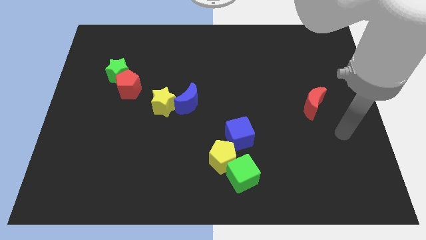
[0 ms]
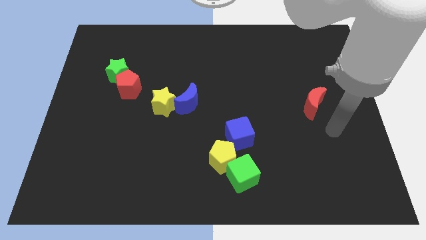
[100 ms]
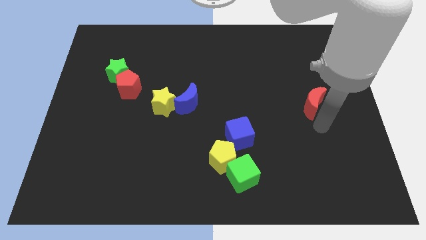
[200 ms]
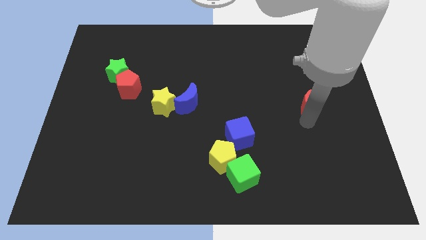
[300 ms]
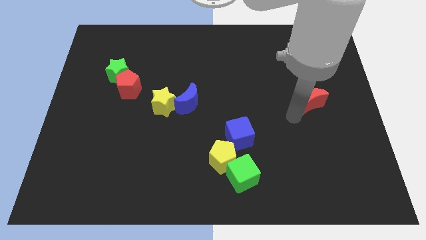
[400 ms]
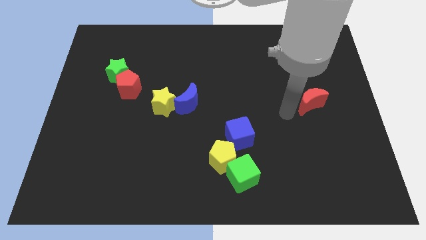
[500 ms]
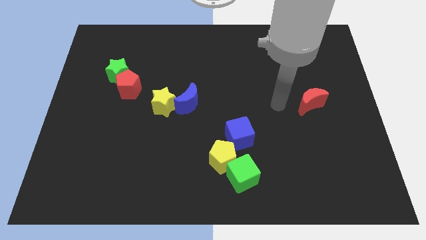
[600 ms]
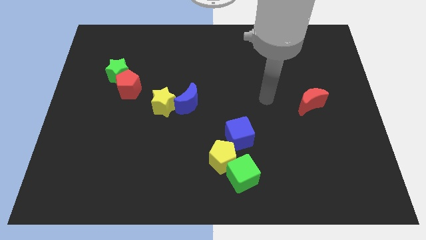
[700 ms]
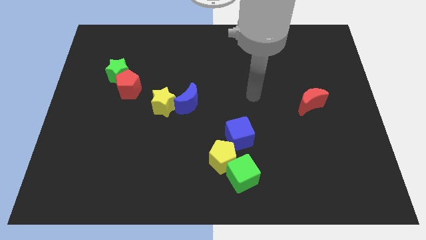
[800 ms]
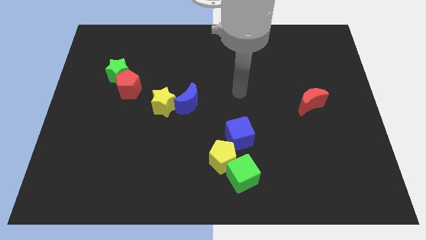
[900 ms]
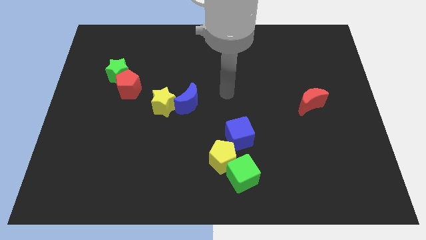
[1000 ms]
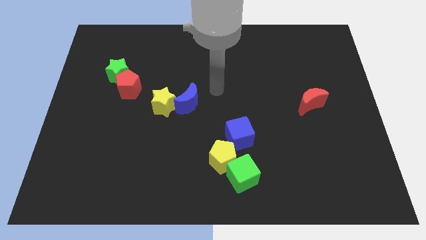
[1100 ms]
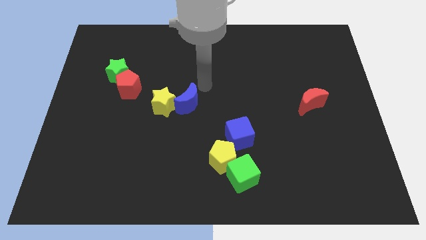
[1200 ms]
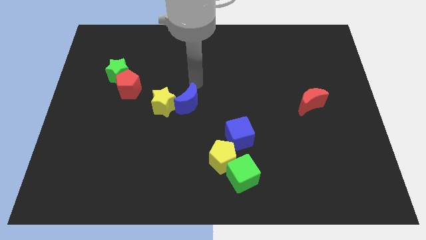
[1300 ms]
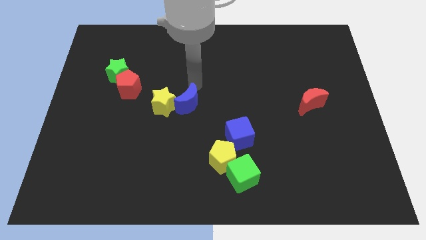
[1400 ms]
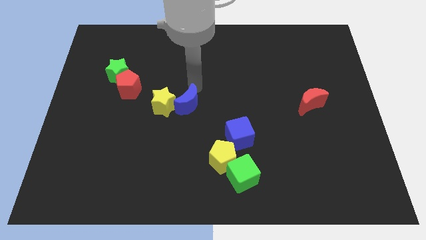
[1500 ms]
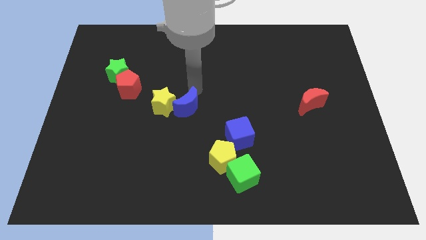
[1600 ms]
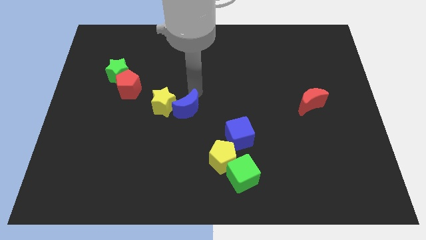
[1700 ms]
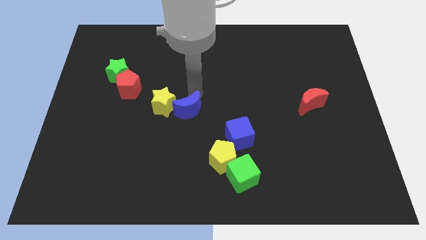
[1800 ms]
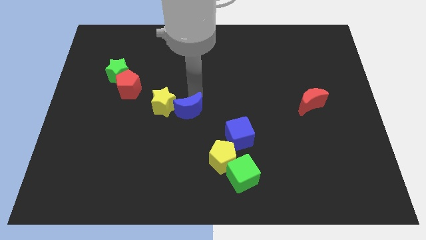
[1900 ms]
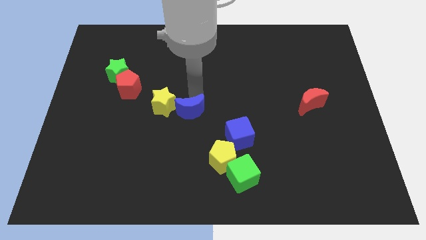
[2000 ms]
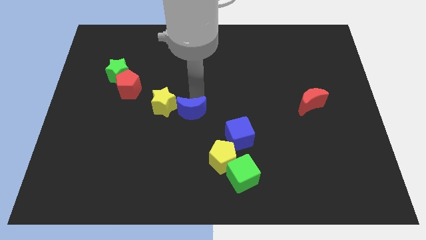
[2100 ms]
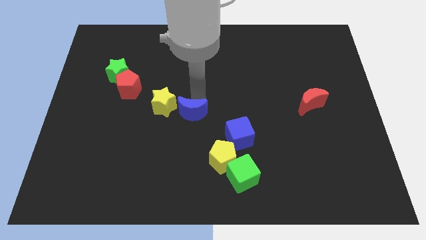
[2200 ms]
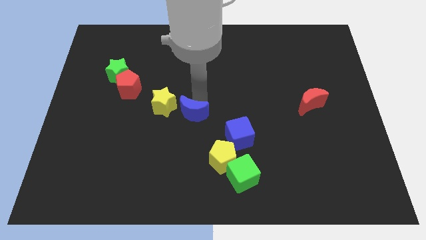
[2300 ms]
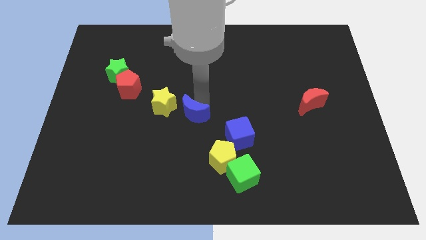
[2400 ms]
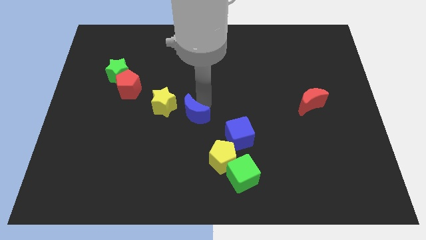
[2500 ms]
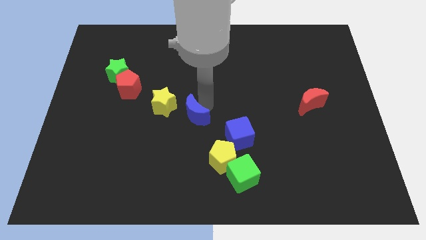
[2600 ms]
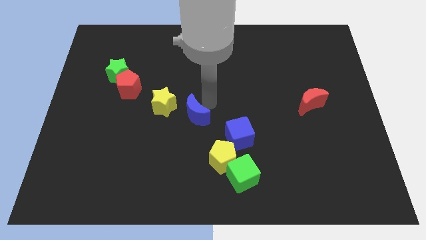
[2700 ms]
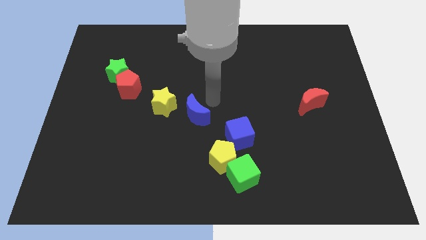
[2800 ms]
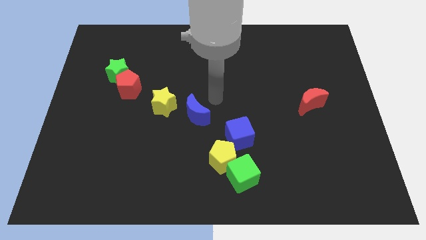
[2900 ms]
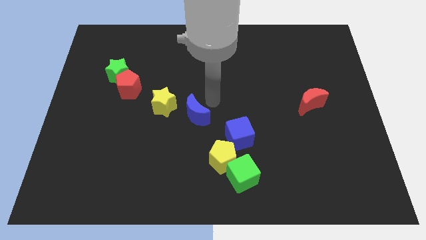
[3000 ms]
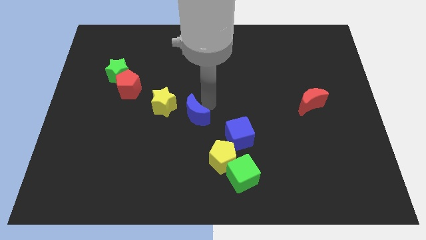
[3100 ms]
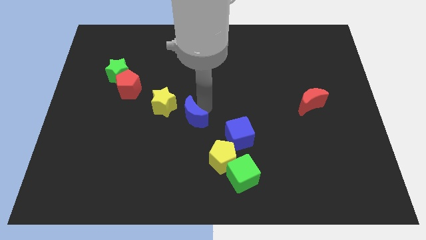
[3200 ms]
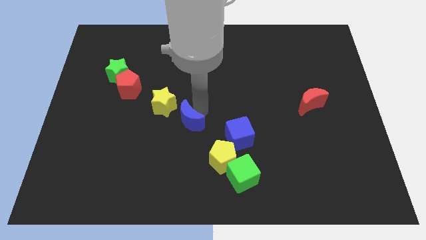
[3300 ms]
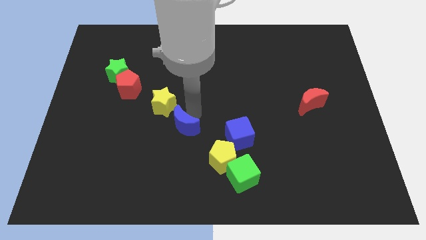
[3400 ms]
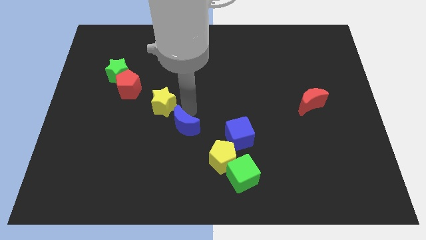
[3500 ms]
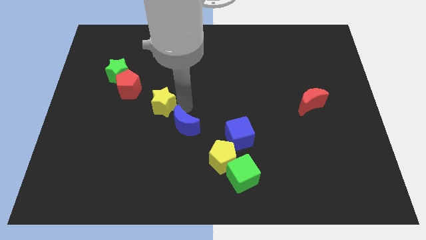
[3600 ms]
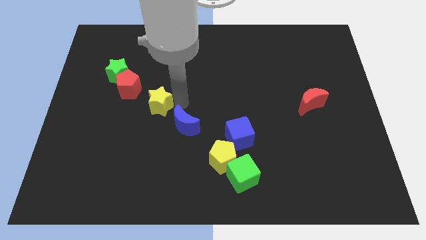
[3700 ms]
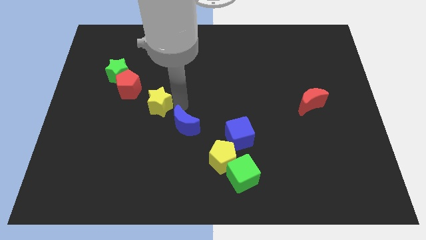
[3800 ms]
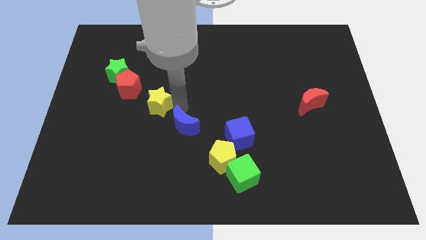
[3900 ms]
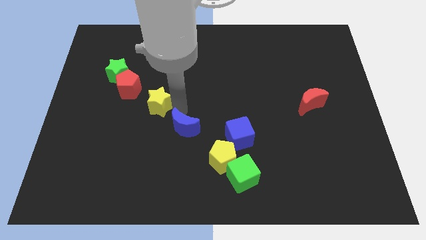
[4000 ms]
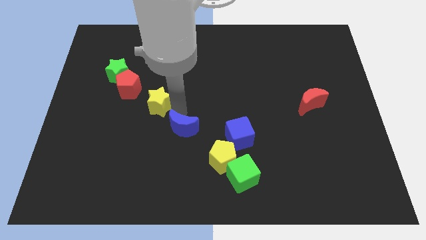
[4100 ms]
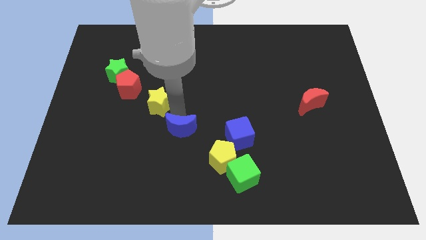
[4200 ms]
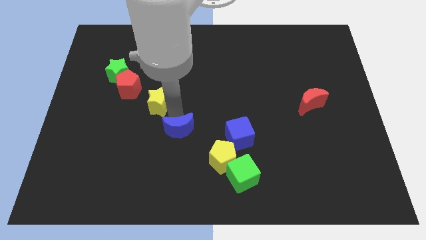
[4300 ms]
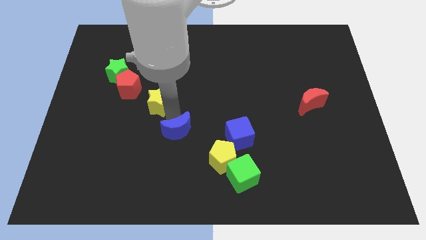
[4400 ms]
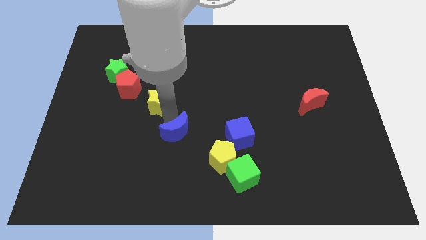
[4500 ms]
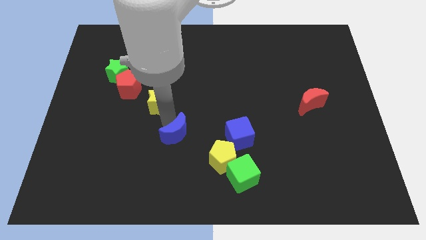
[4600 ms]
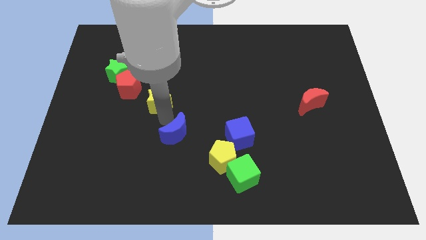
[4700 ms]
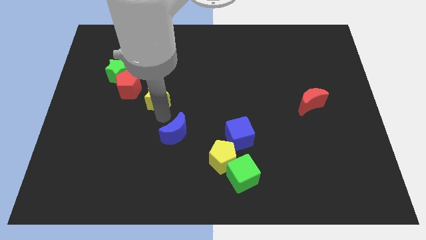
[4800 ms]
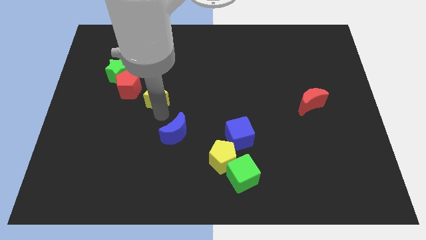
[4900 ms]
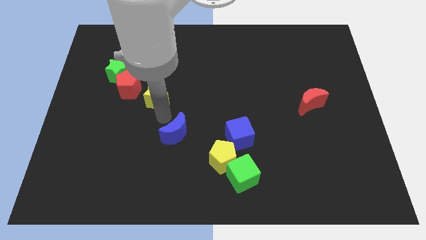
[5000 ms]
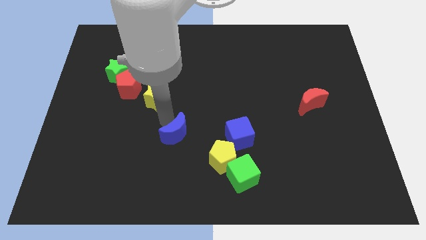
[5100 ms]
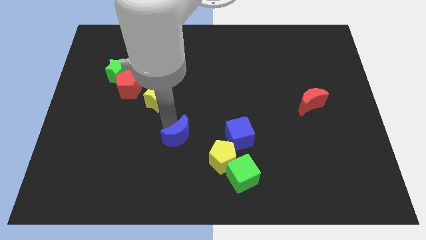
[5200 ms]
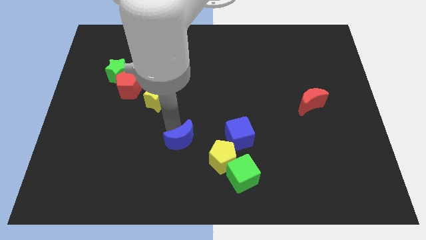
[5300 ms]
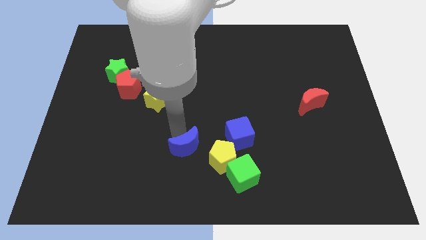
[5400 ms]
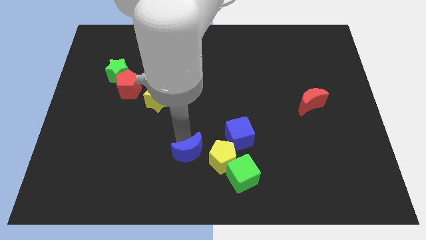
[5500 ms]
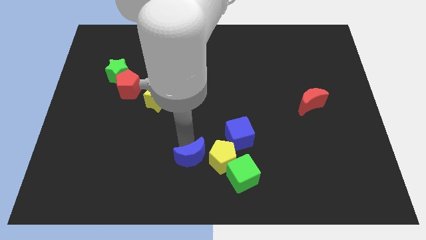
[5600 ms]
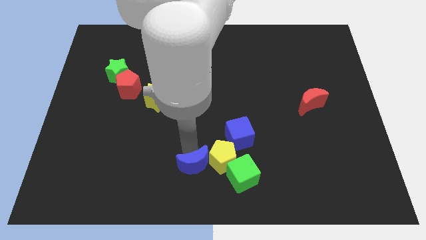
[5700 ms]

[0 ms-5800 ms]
move the blue moon diagonally down and to the left of the yellow pentagon

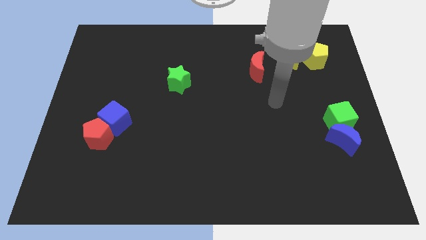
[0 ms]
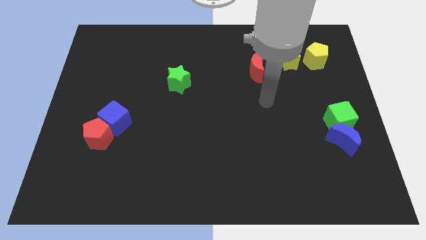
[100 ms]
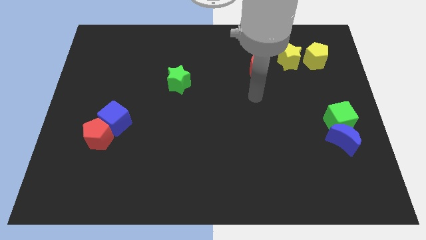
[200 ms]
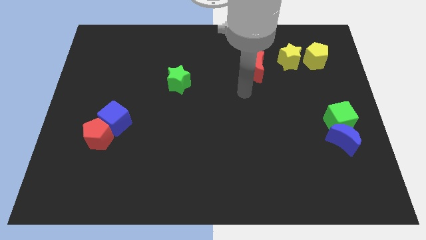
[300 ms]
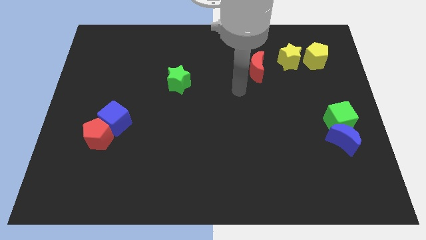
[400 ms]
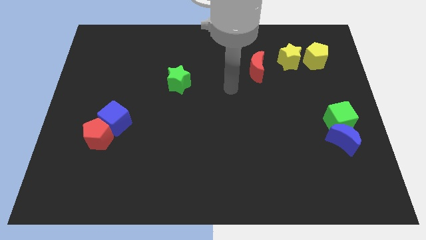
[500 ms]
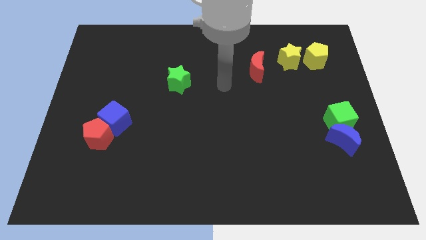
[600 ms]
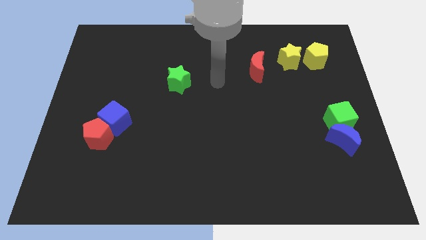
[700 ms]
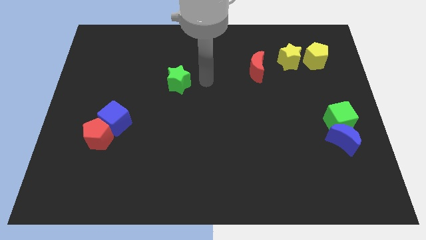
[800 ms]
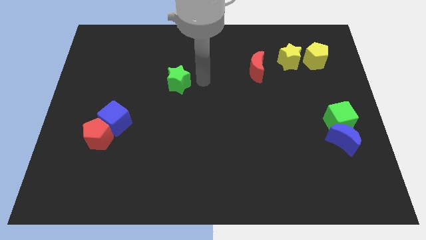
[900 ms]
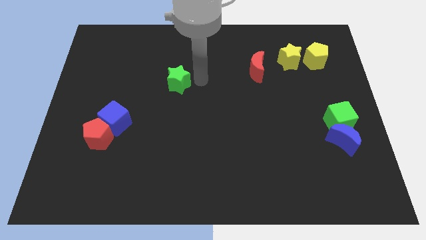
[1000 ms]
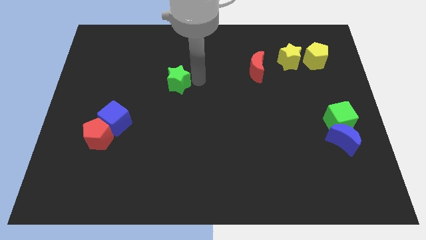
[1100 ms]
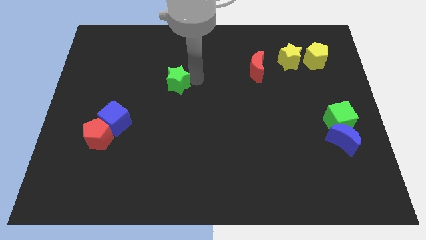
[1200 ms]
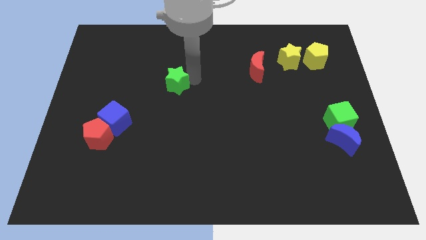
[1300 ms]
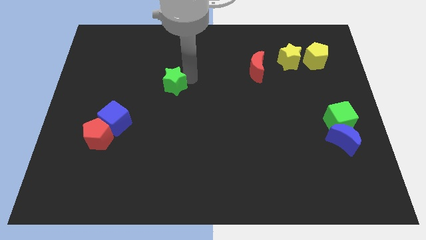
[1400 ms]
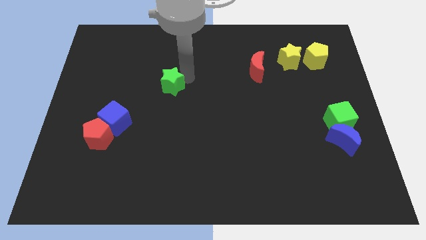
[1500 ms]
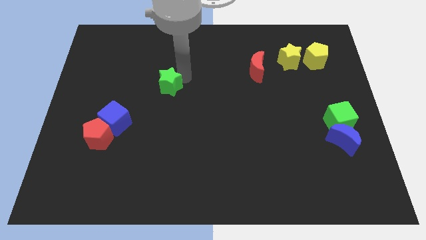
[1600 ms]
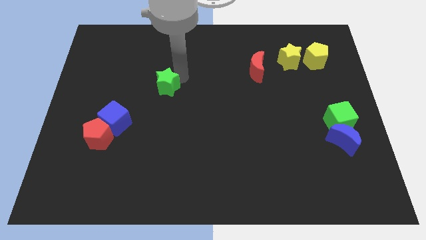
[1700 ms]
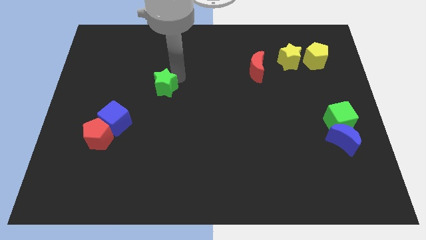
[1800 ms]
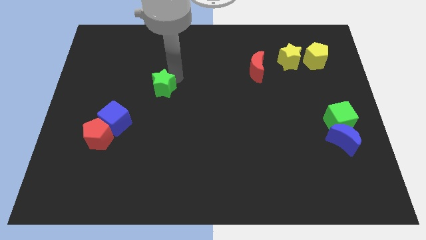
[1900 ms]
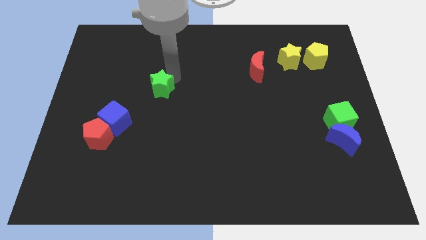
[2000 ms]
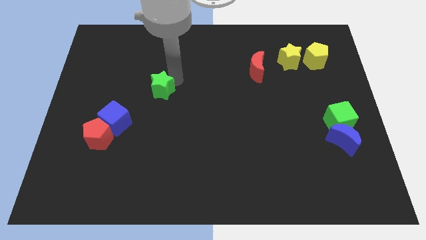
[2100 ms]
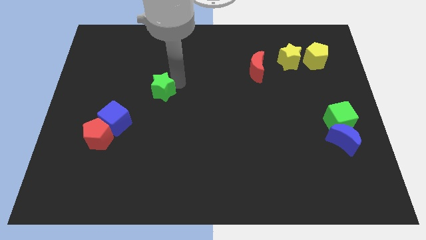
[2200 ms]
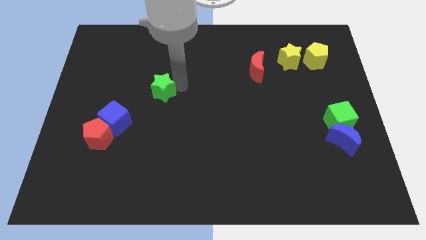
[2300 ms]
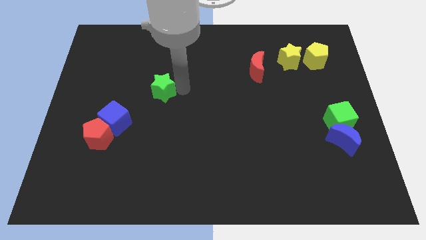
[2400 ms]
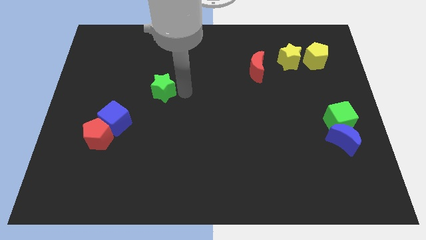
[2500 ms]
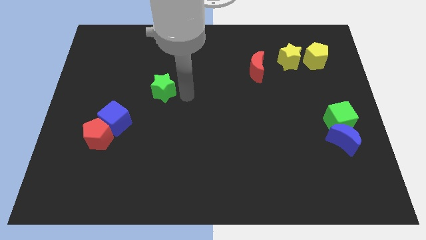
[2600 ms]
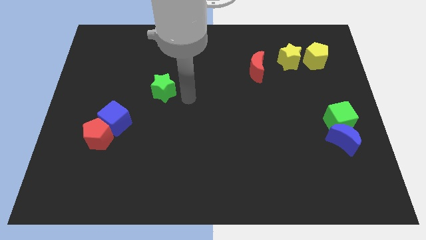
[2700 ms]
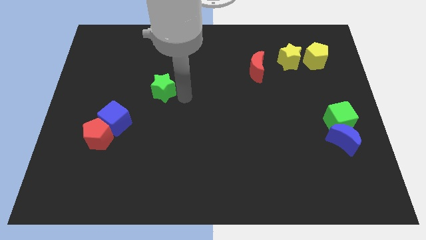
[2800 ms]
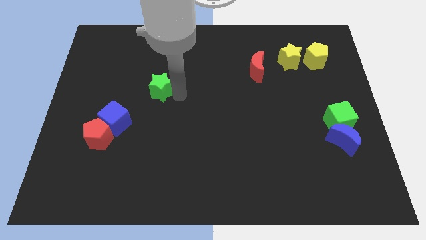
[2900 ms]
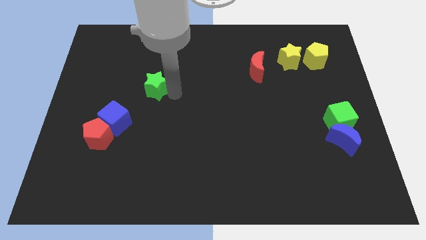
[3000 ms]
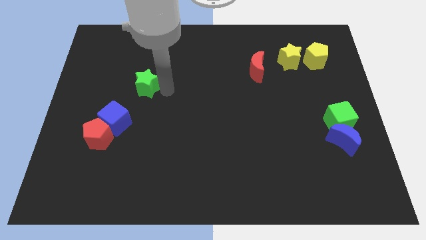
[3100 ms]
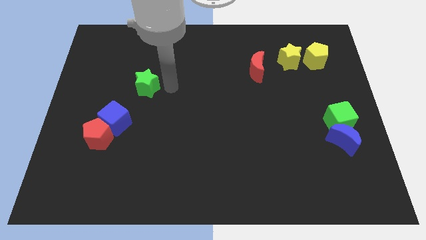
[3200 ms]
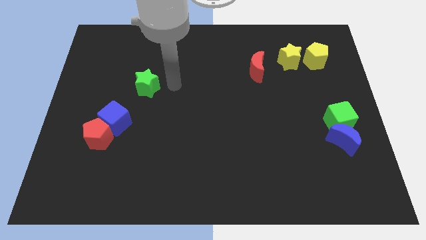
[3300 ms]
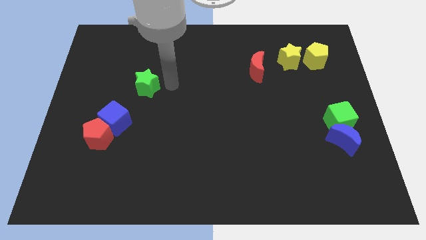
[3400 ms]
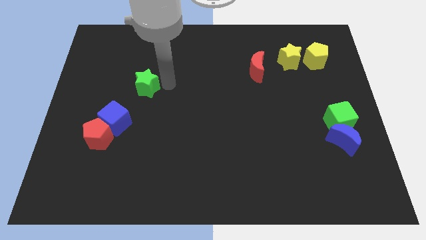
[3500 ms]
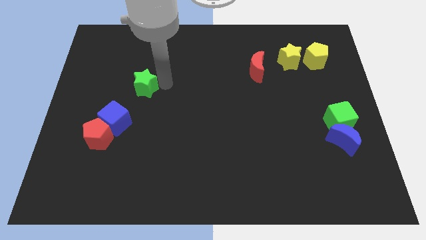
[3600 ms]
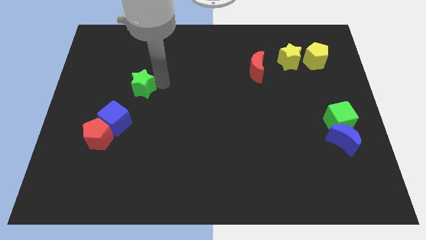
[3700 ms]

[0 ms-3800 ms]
push the green star above the blue cube
